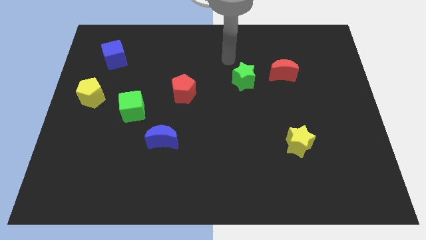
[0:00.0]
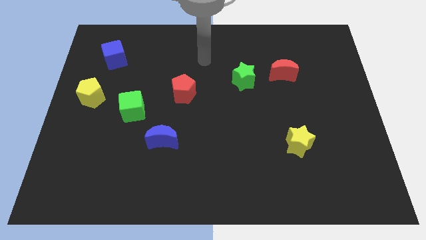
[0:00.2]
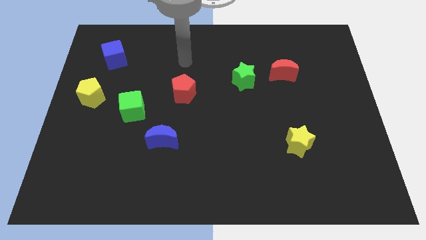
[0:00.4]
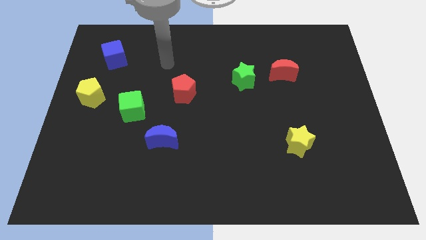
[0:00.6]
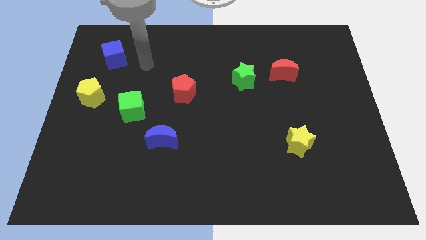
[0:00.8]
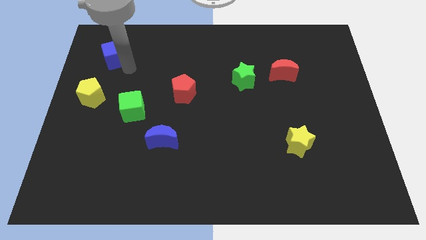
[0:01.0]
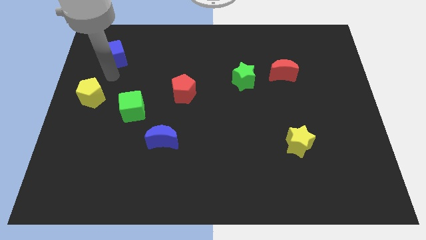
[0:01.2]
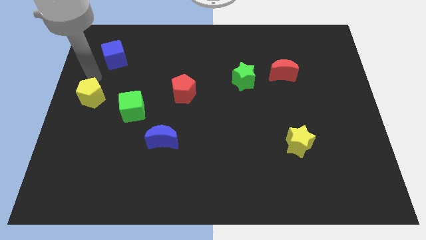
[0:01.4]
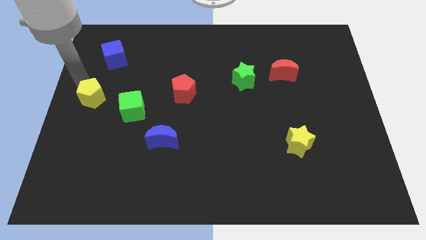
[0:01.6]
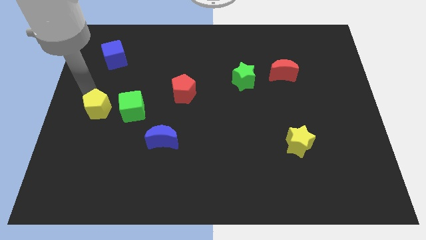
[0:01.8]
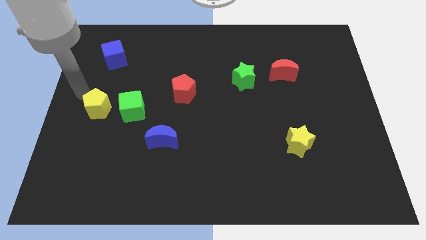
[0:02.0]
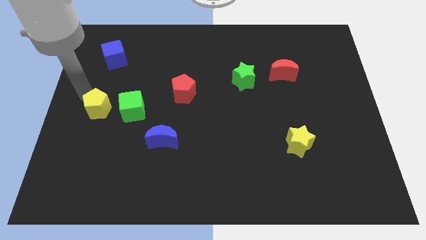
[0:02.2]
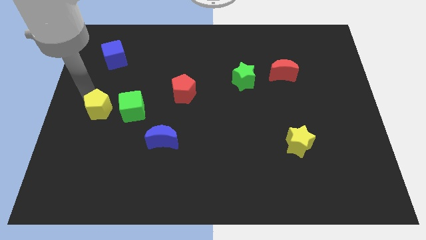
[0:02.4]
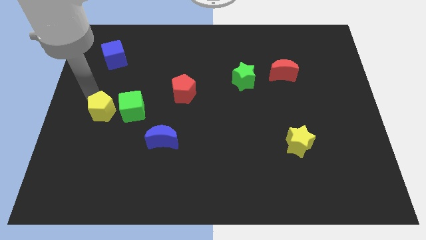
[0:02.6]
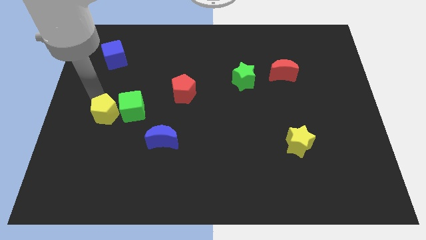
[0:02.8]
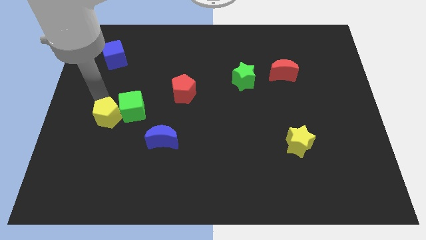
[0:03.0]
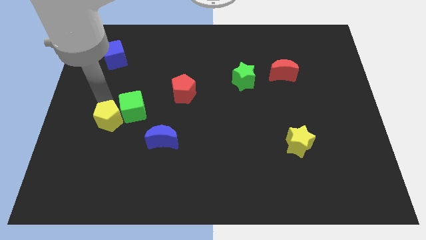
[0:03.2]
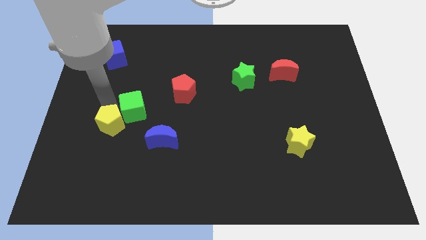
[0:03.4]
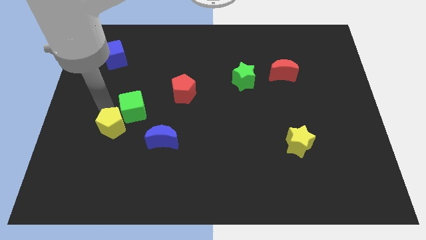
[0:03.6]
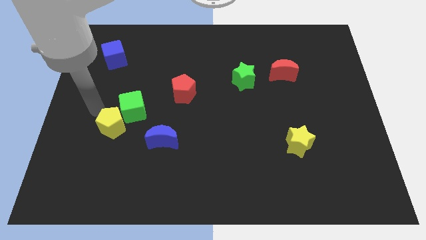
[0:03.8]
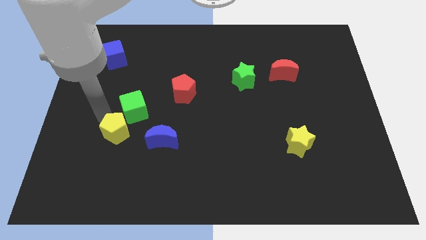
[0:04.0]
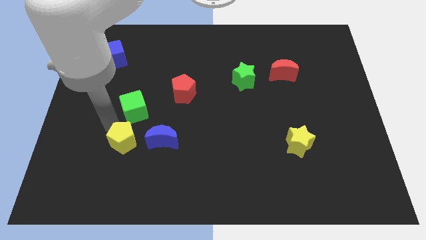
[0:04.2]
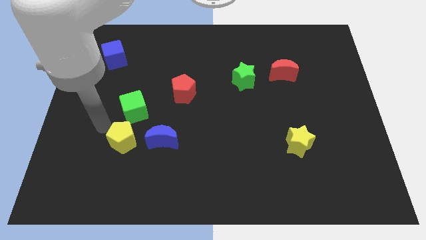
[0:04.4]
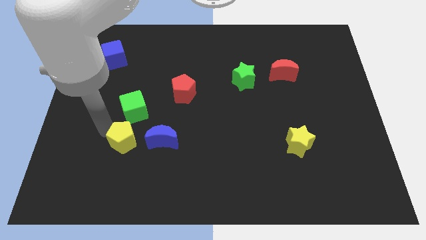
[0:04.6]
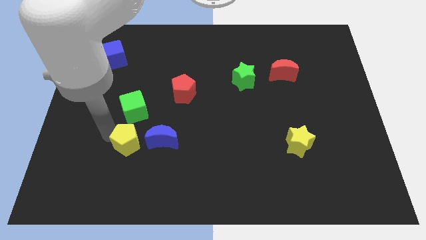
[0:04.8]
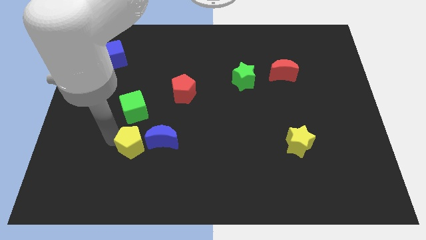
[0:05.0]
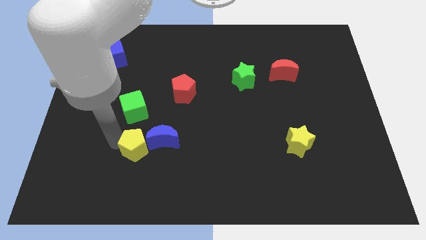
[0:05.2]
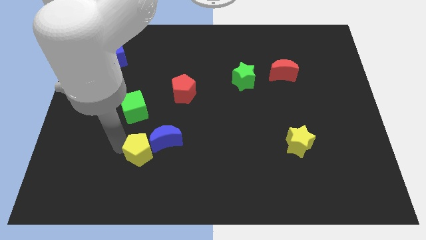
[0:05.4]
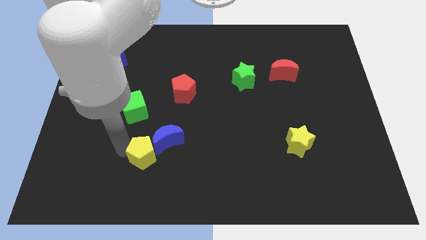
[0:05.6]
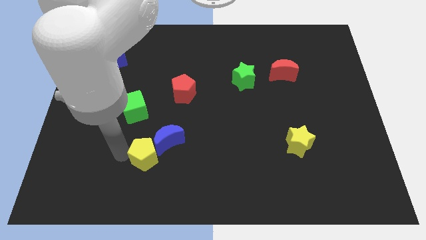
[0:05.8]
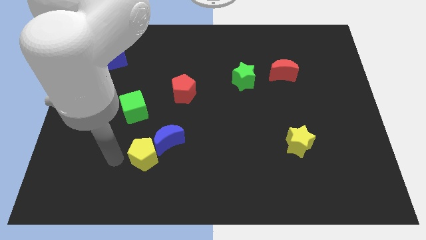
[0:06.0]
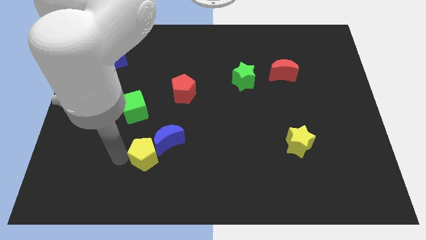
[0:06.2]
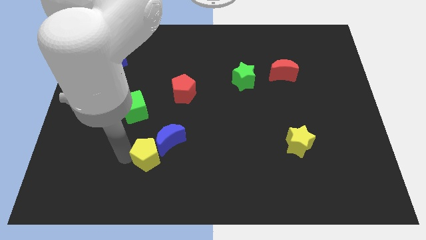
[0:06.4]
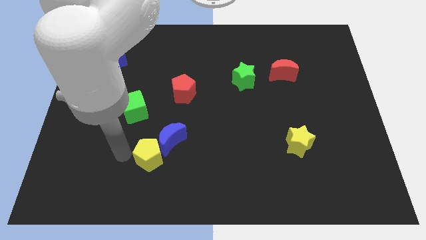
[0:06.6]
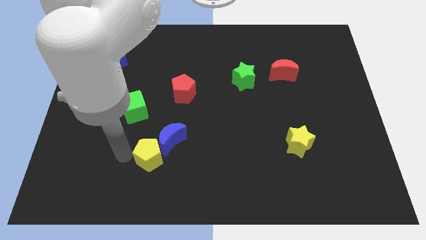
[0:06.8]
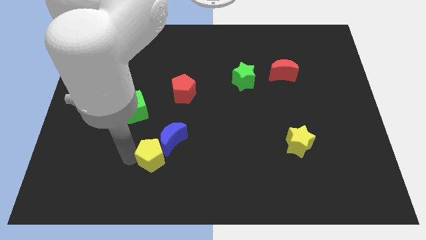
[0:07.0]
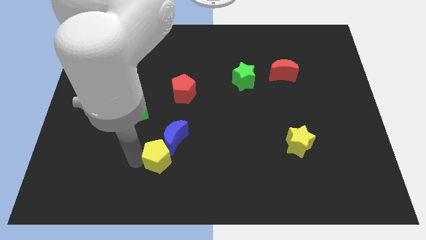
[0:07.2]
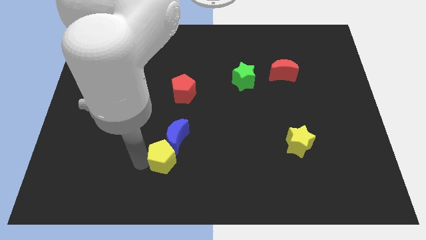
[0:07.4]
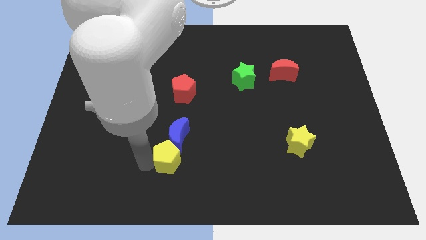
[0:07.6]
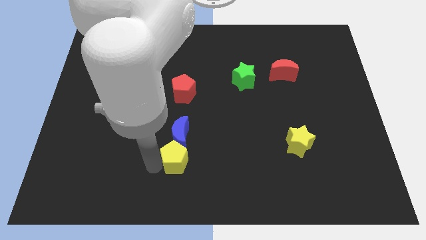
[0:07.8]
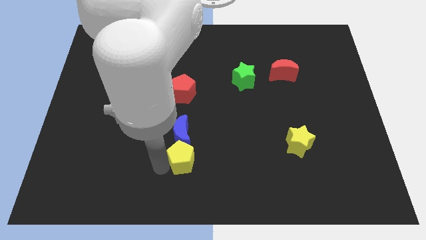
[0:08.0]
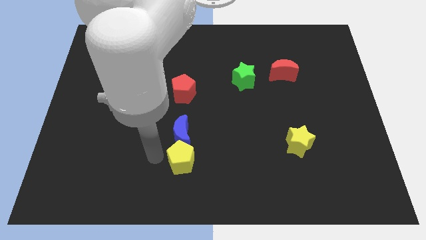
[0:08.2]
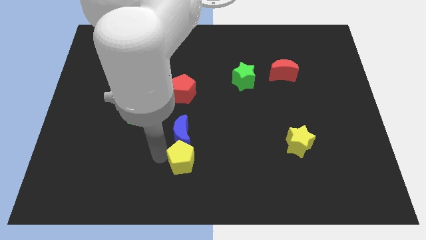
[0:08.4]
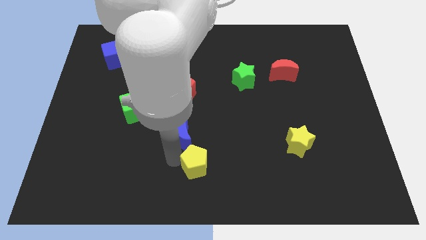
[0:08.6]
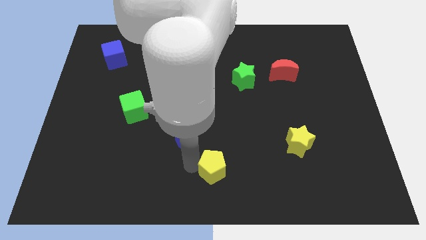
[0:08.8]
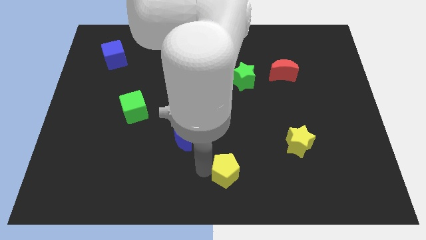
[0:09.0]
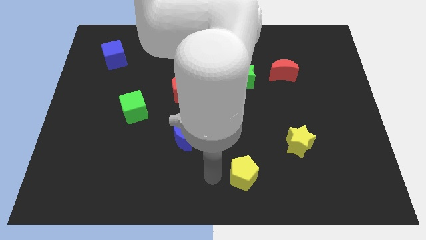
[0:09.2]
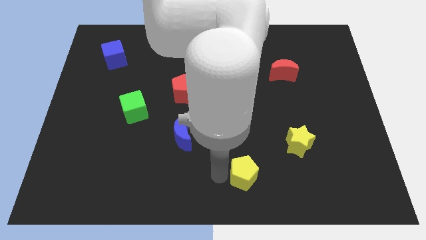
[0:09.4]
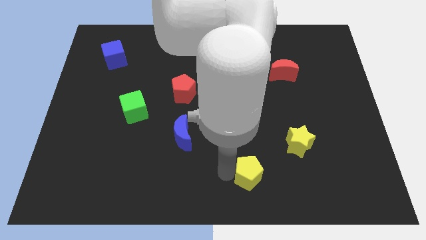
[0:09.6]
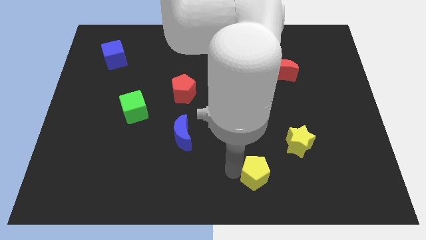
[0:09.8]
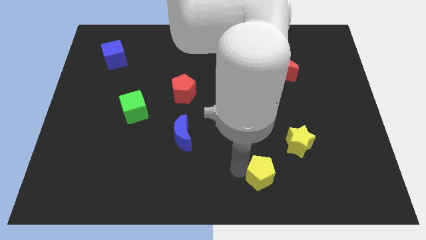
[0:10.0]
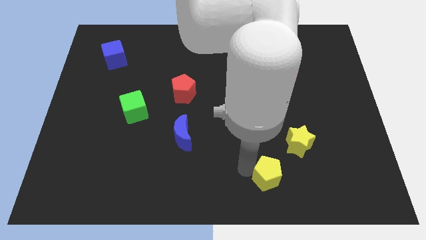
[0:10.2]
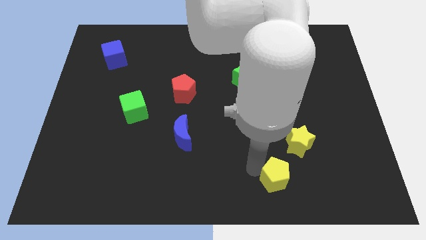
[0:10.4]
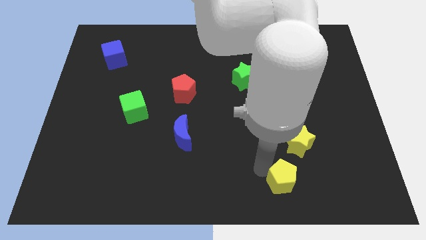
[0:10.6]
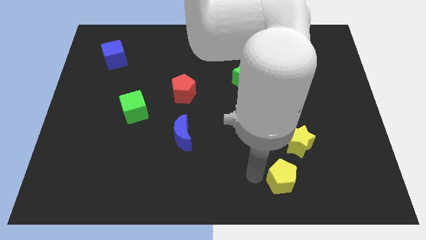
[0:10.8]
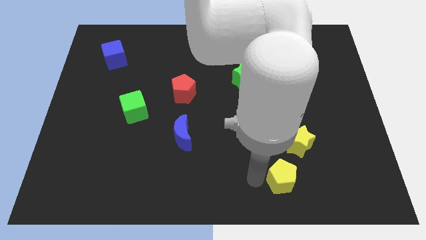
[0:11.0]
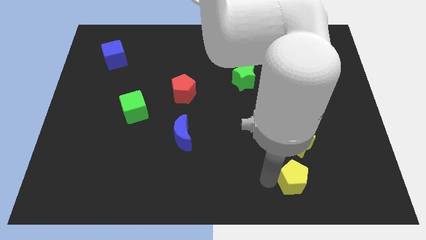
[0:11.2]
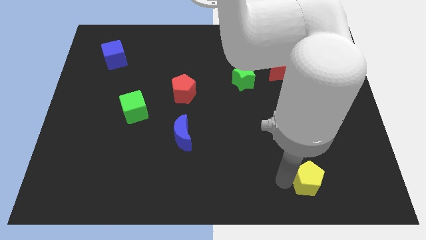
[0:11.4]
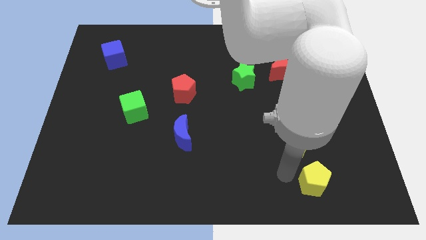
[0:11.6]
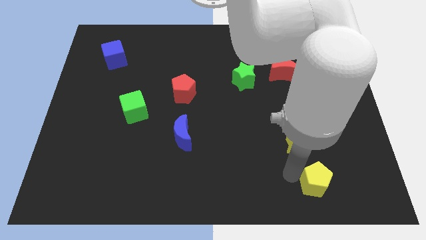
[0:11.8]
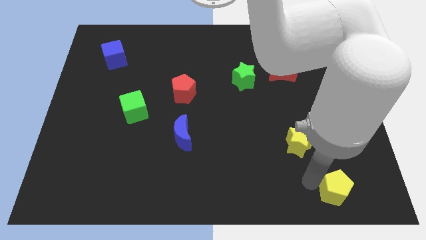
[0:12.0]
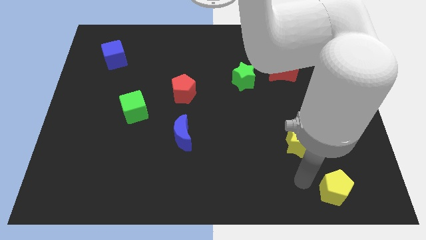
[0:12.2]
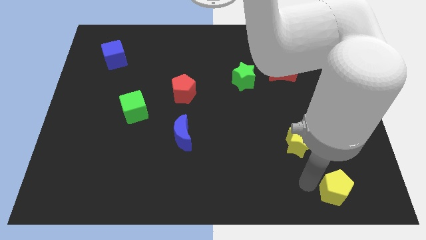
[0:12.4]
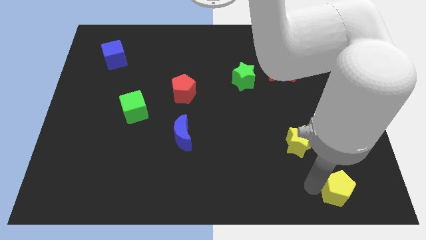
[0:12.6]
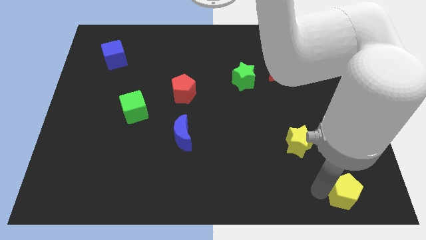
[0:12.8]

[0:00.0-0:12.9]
push the yellow pentagon to the bottom right
